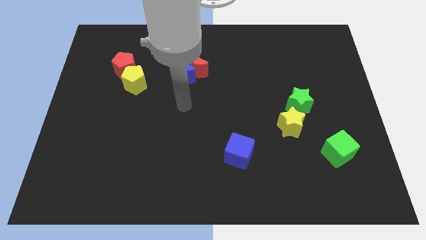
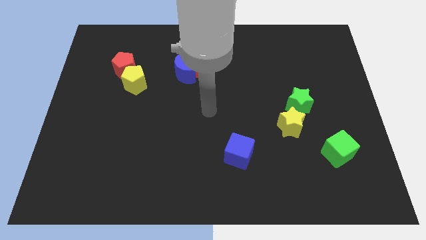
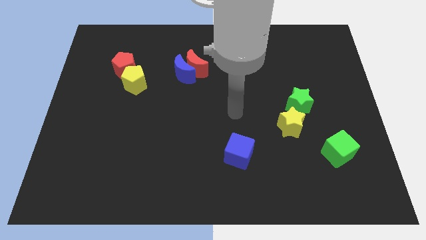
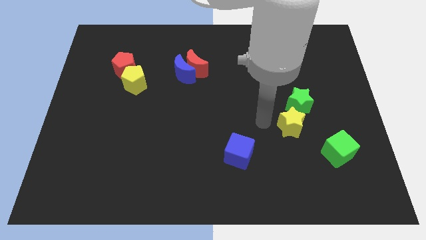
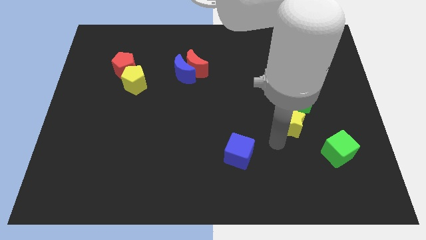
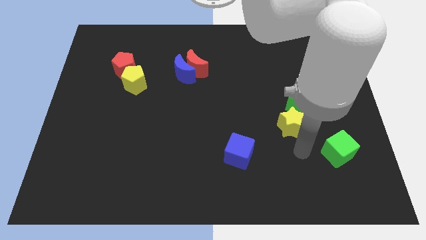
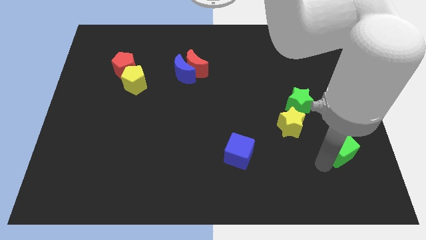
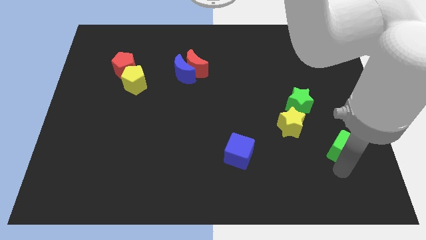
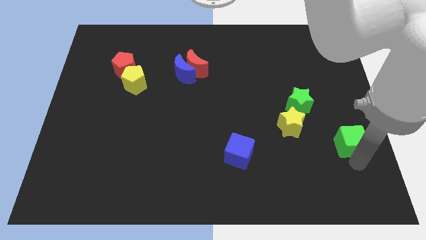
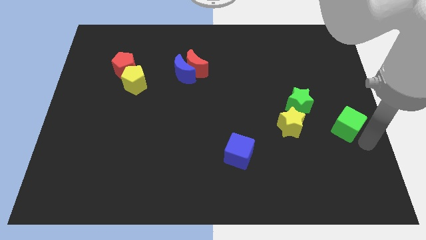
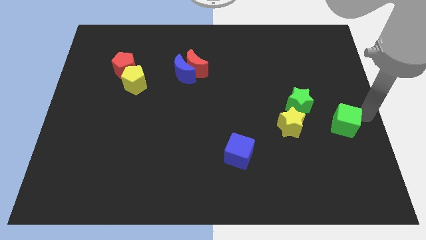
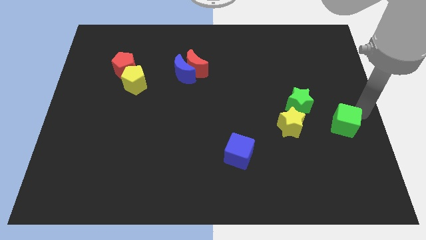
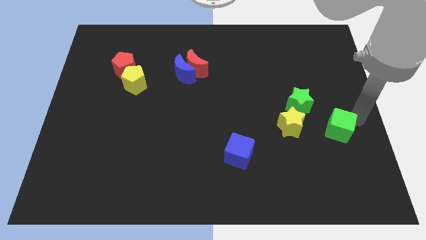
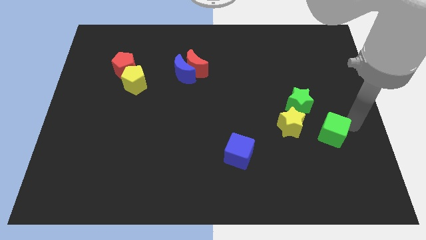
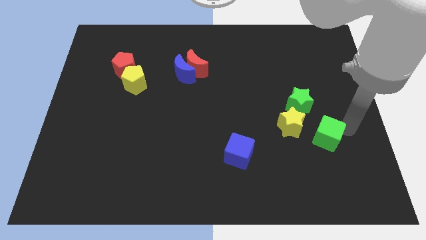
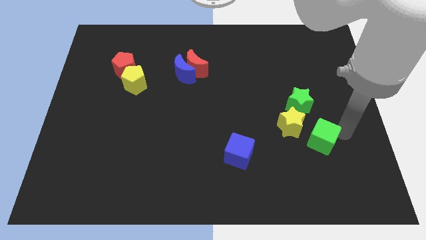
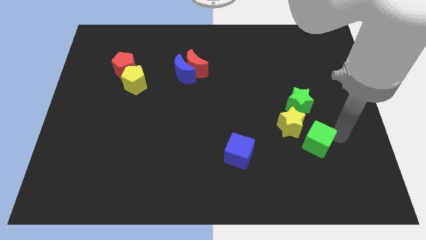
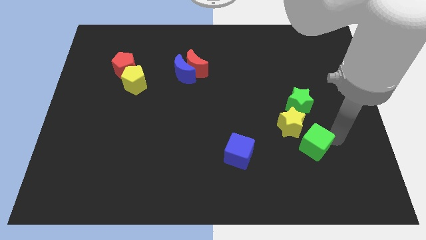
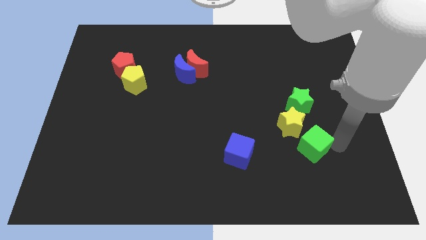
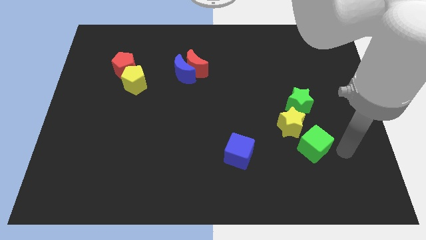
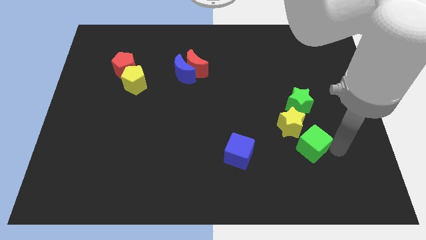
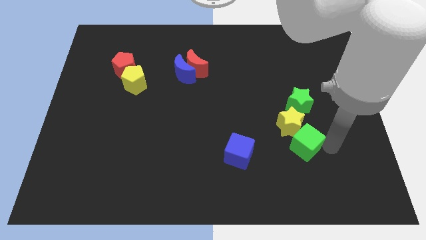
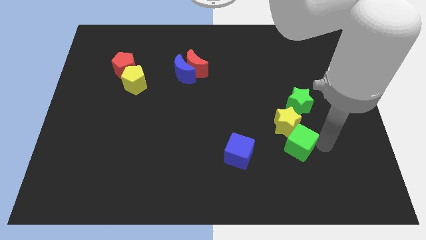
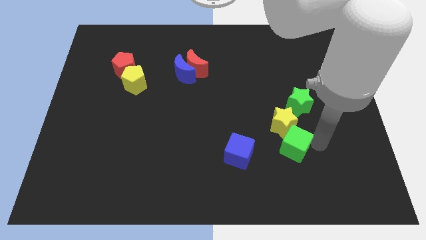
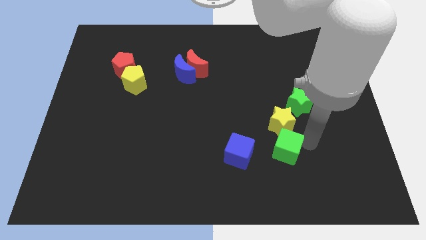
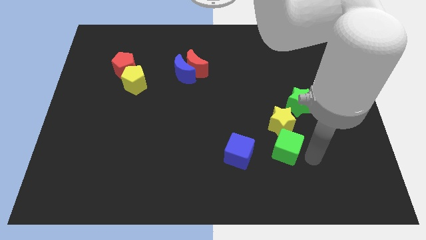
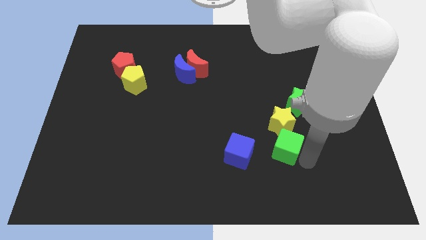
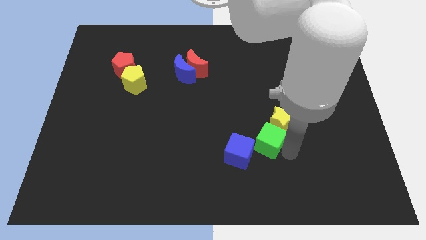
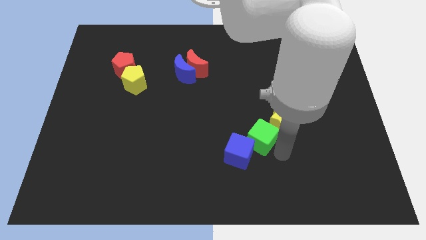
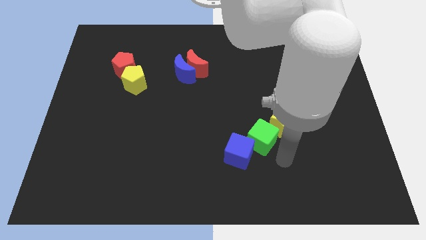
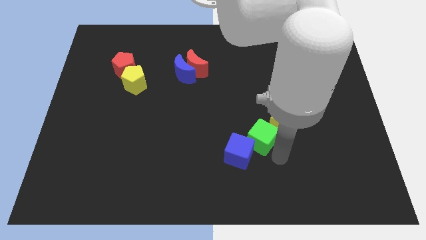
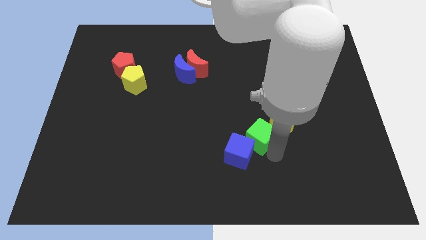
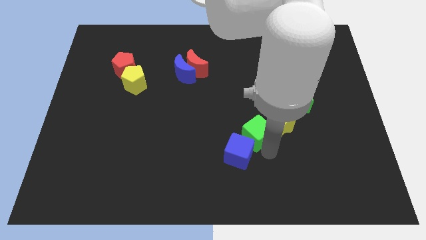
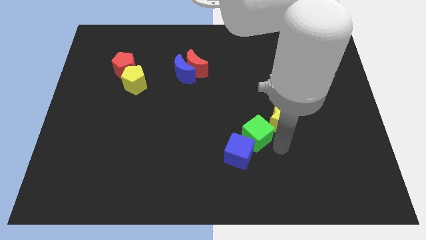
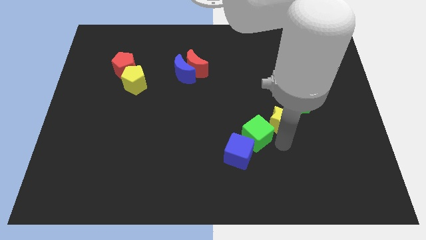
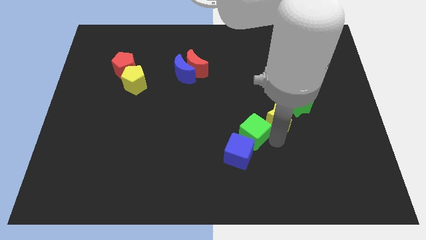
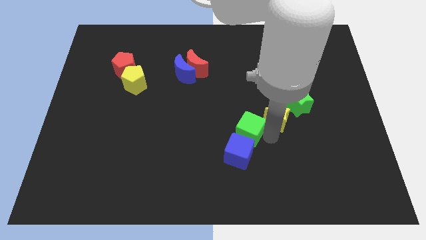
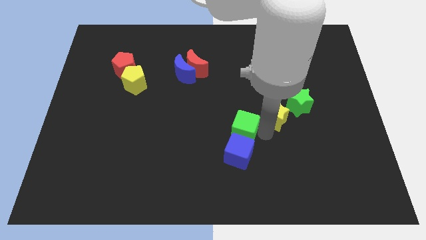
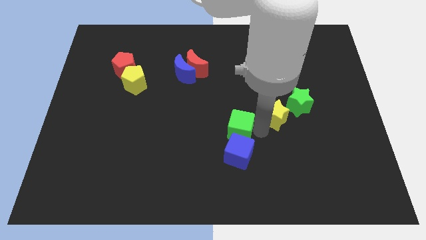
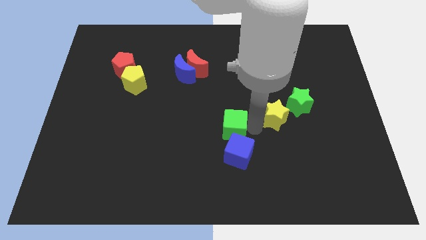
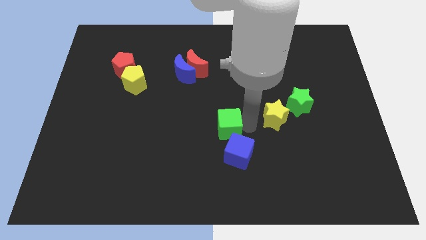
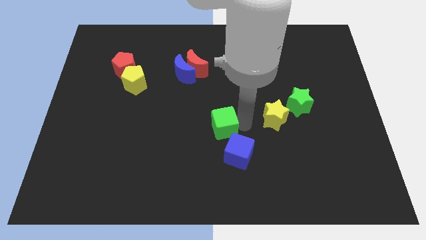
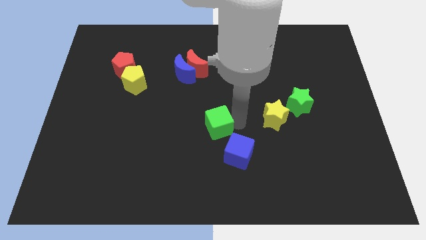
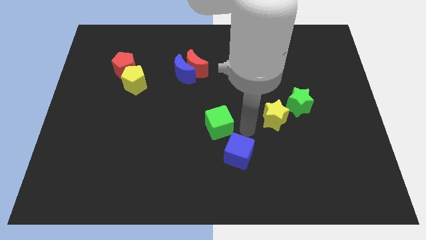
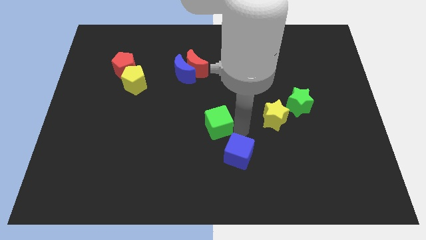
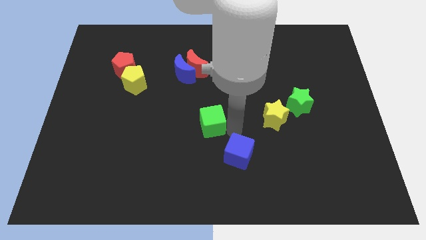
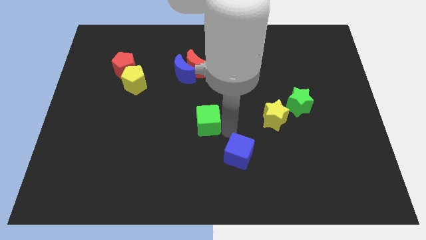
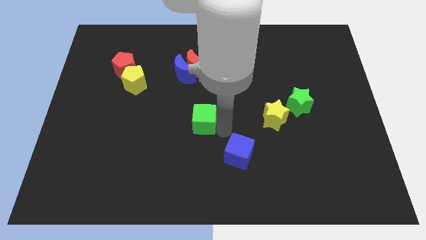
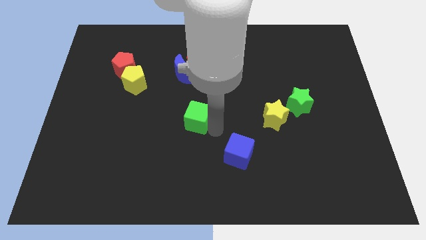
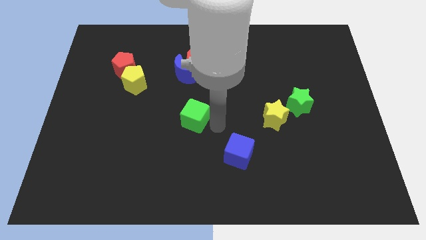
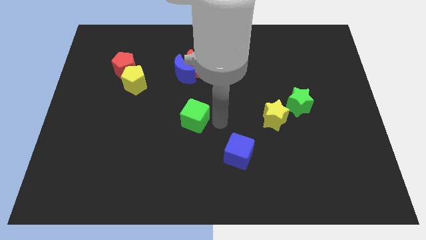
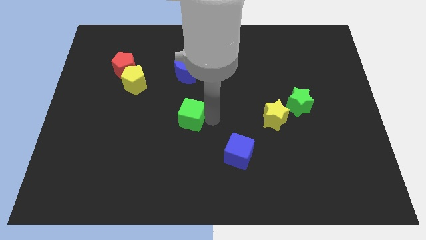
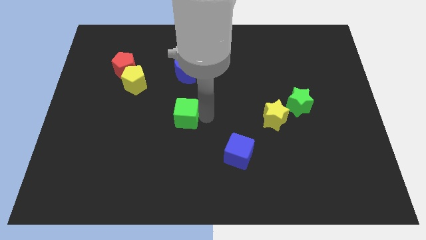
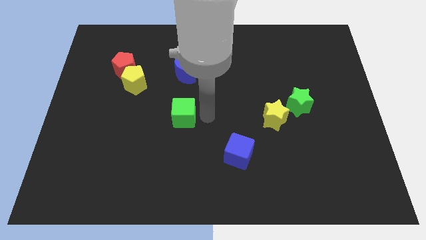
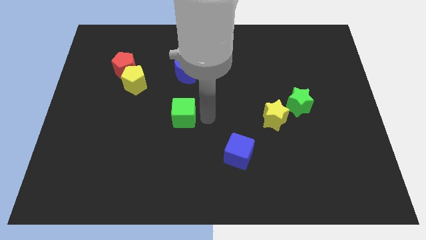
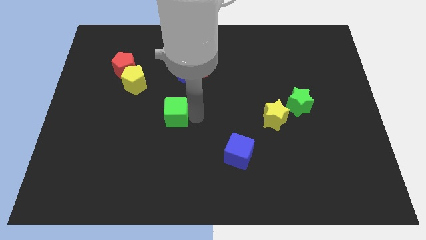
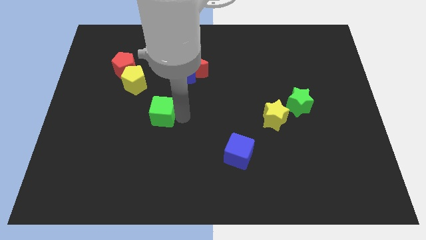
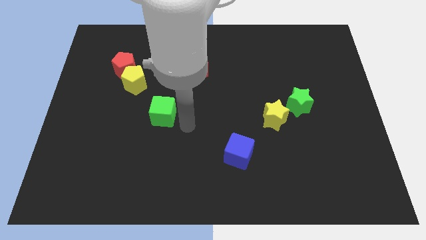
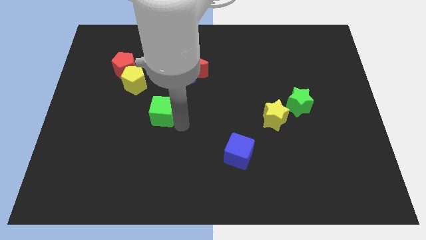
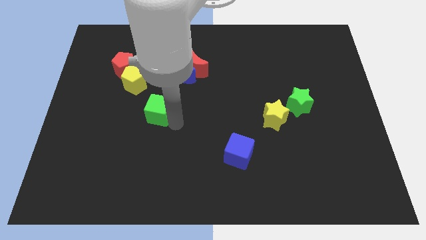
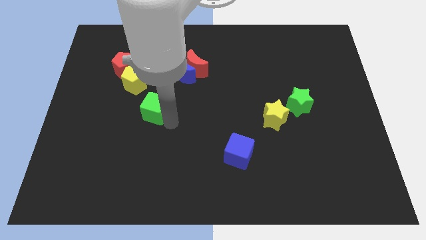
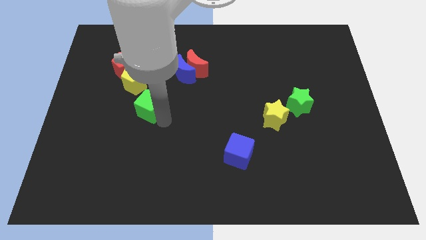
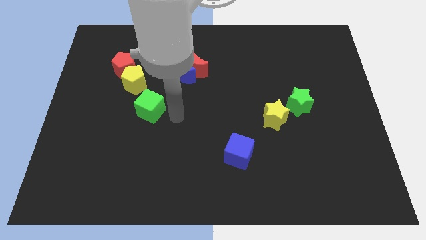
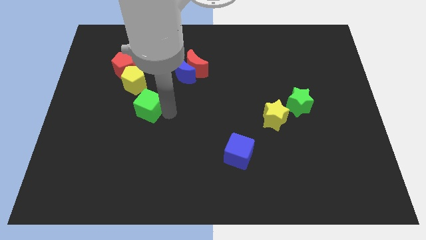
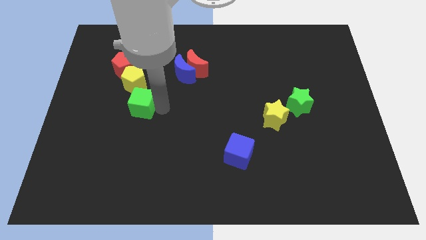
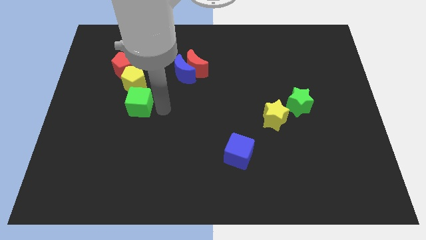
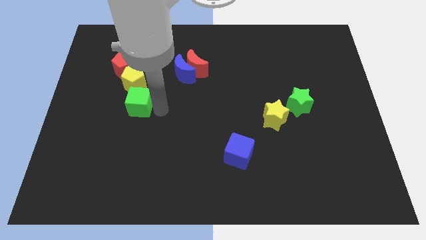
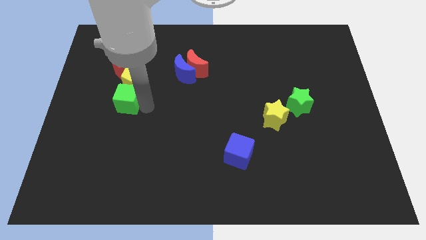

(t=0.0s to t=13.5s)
move the green cube to the bottom left side of the yellow pentagon

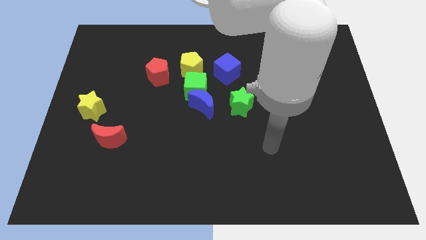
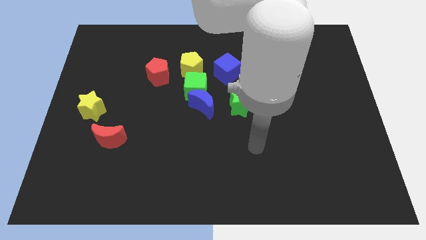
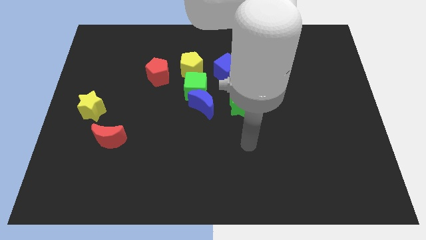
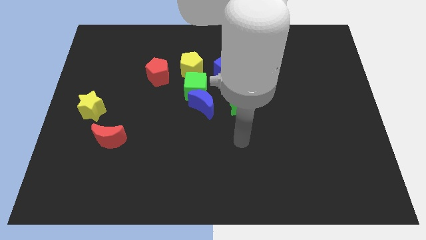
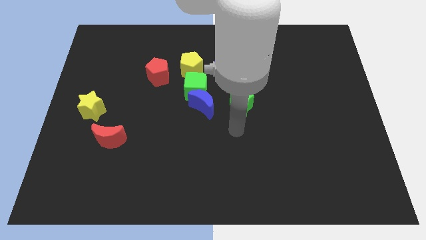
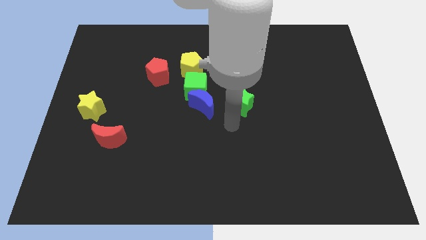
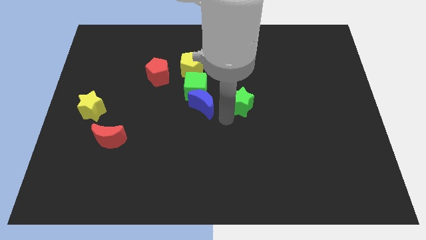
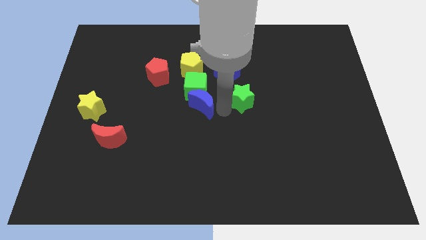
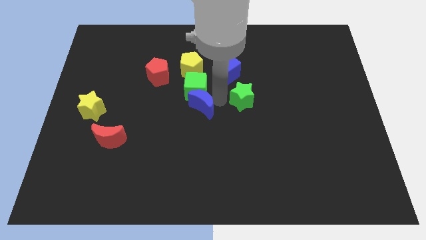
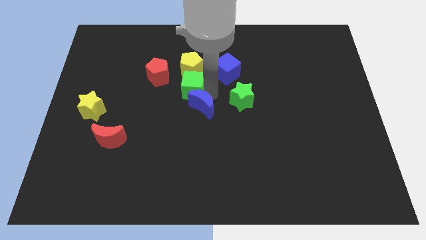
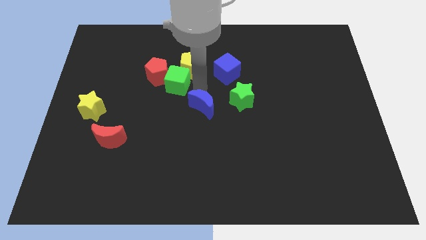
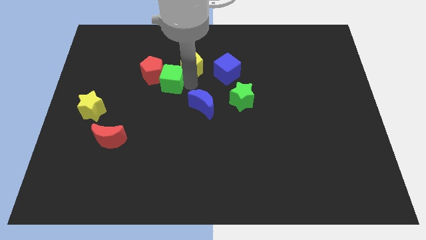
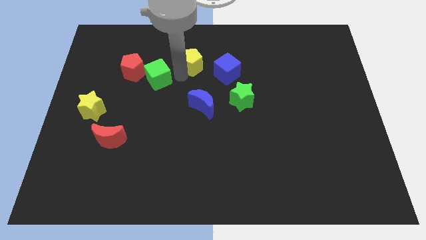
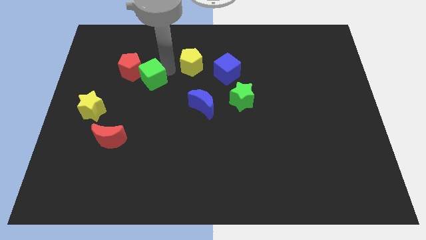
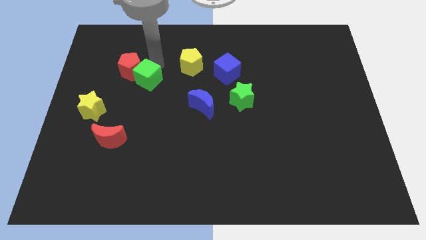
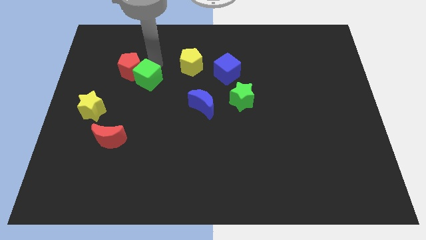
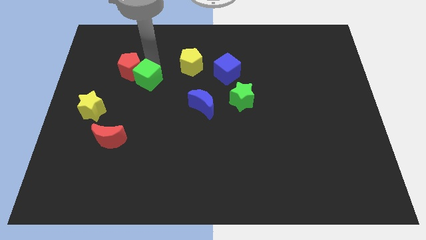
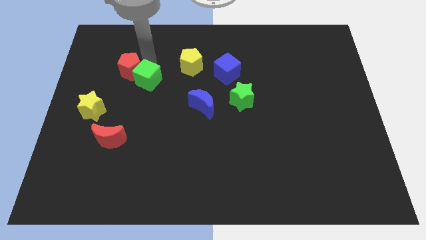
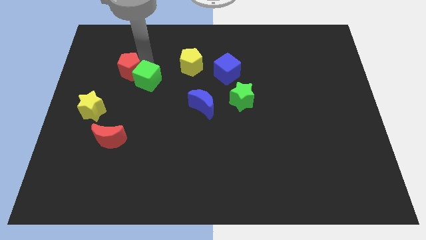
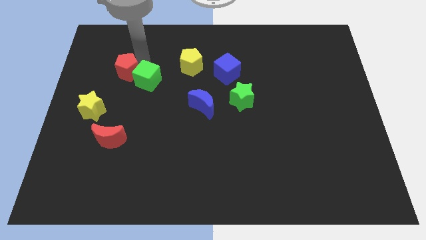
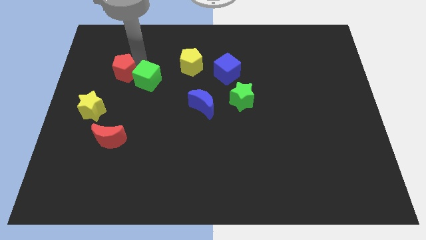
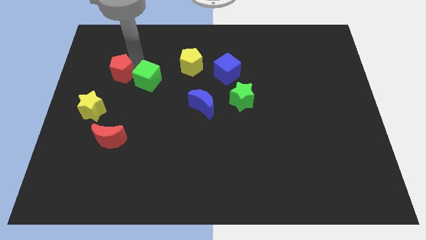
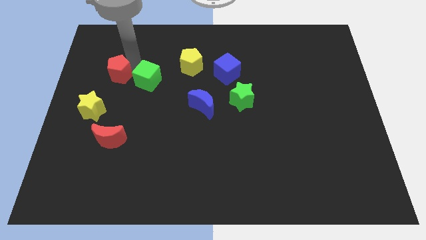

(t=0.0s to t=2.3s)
push the red pentagon to the top of the yellow star
